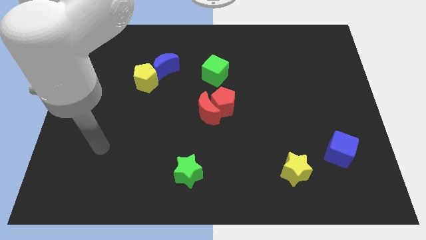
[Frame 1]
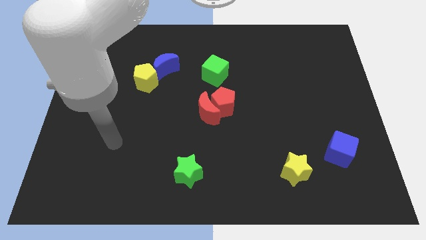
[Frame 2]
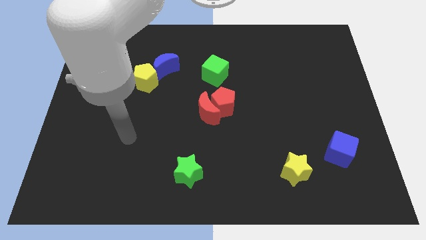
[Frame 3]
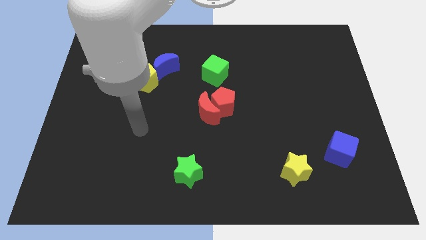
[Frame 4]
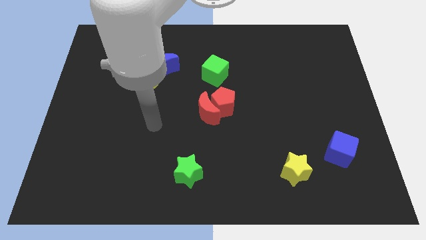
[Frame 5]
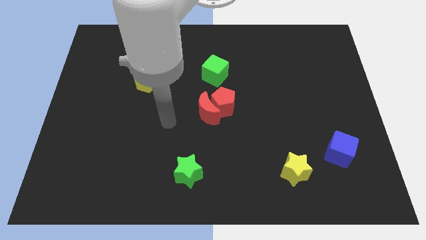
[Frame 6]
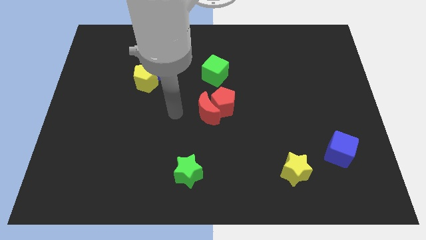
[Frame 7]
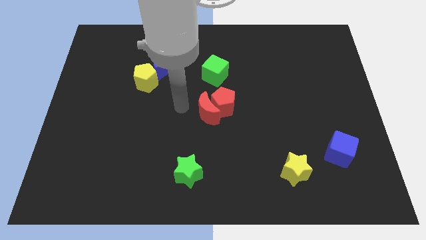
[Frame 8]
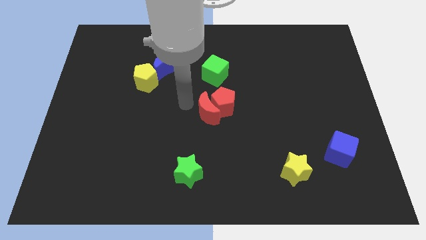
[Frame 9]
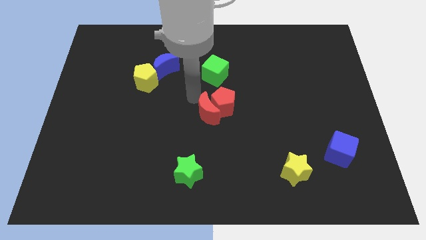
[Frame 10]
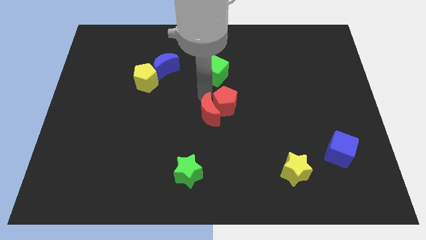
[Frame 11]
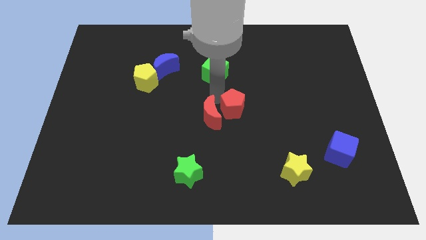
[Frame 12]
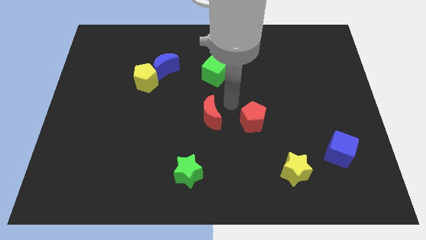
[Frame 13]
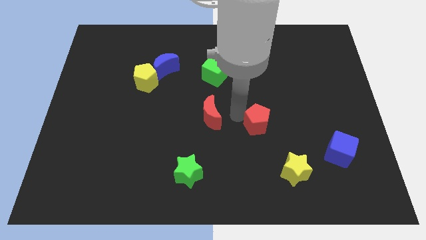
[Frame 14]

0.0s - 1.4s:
separate the red moon from the red pentagon

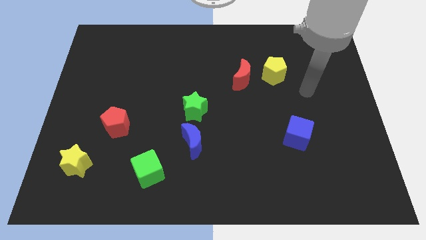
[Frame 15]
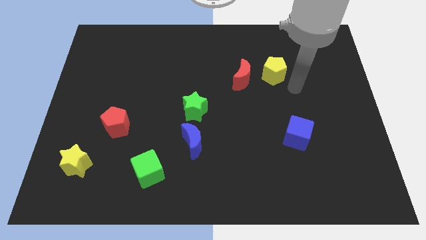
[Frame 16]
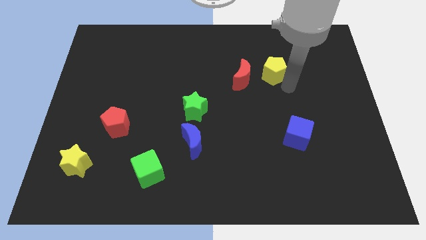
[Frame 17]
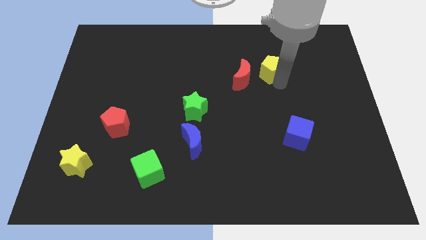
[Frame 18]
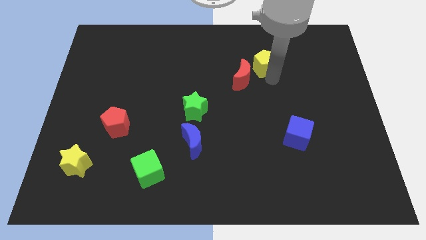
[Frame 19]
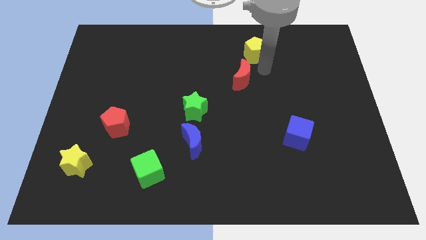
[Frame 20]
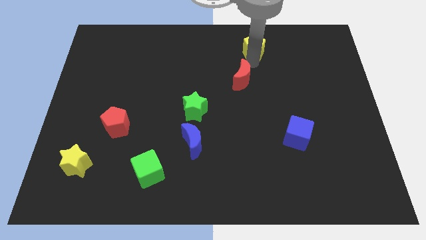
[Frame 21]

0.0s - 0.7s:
pull the red moon apart from the yellow pentagon

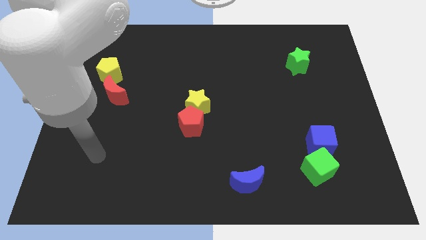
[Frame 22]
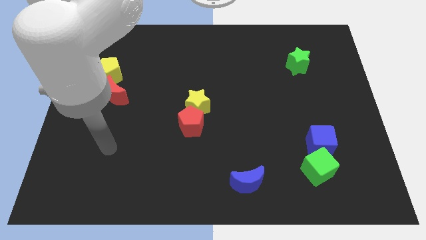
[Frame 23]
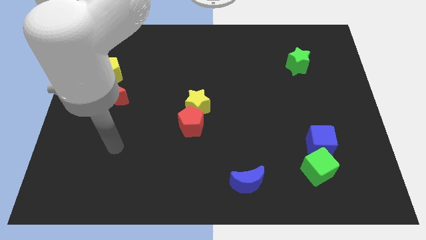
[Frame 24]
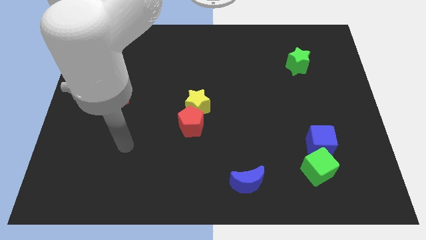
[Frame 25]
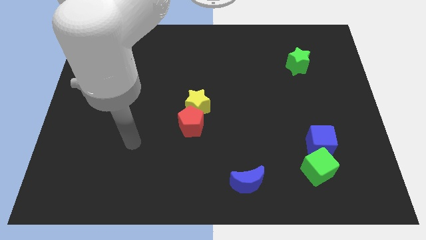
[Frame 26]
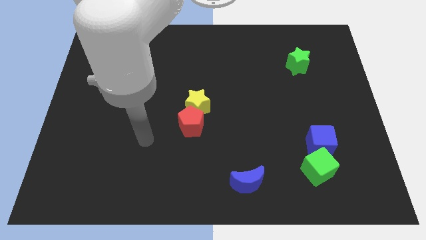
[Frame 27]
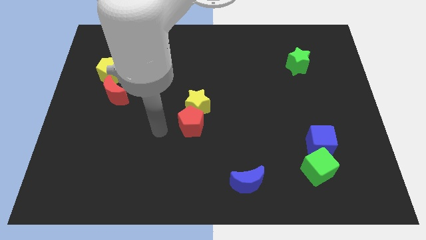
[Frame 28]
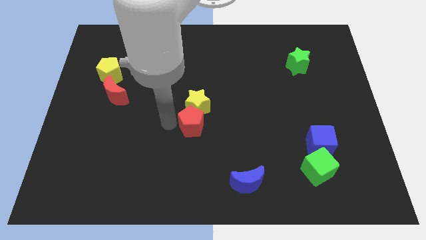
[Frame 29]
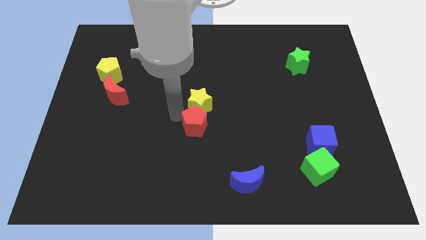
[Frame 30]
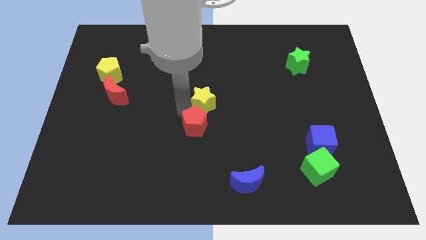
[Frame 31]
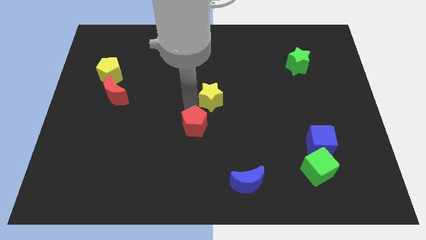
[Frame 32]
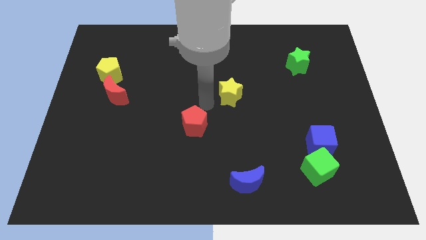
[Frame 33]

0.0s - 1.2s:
move the red pentagon away from the yellow star

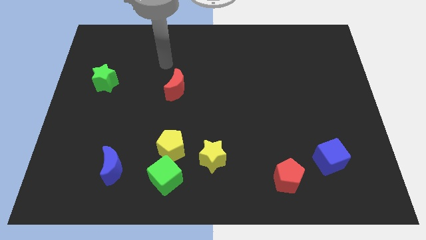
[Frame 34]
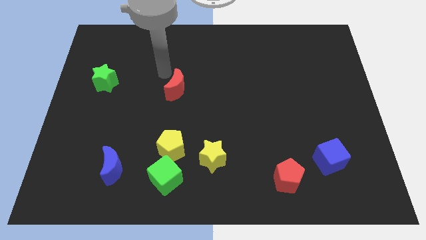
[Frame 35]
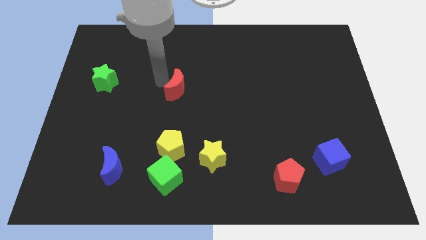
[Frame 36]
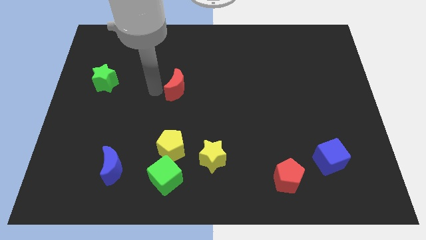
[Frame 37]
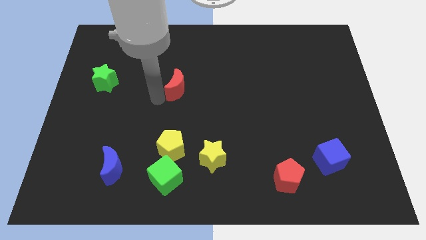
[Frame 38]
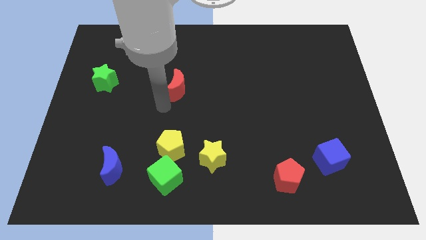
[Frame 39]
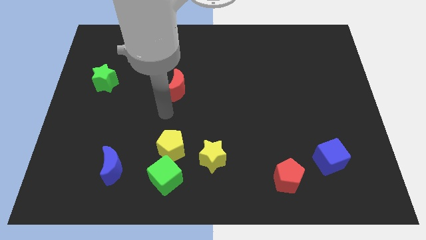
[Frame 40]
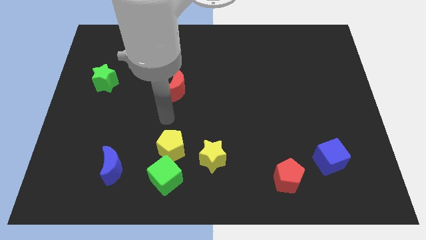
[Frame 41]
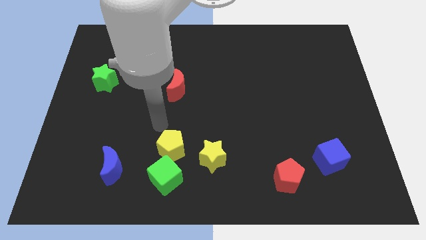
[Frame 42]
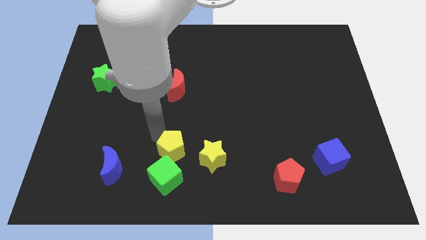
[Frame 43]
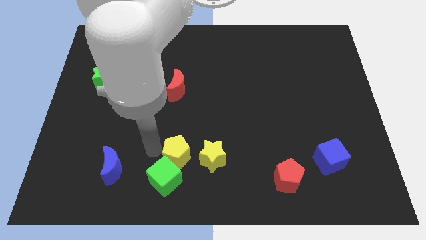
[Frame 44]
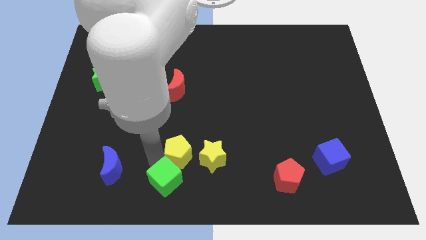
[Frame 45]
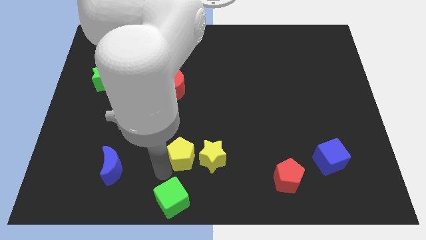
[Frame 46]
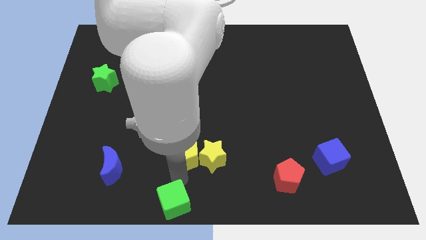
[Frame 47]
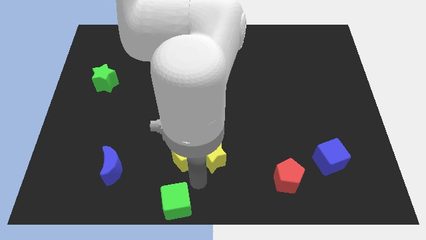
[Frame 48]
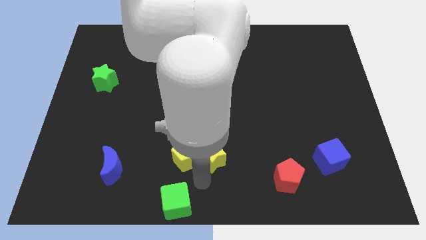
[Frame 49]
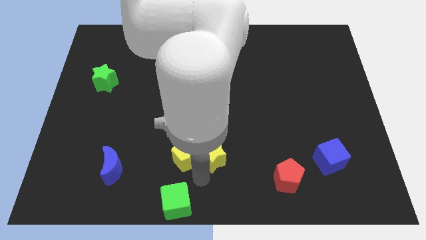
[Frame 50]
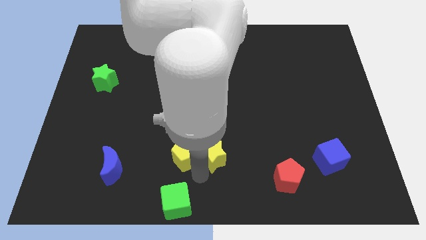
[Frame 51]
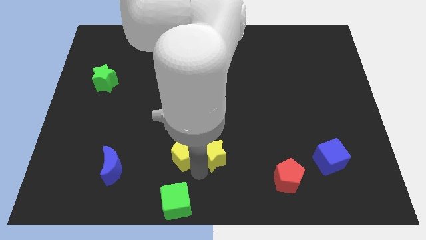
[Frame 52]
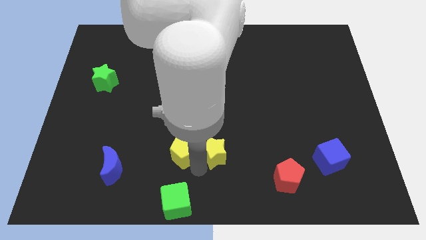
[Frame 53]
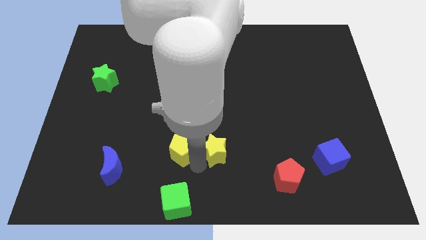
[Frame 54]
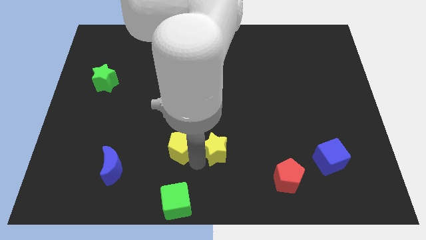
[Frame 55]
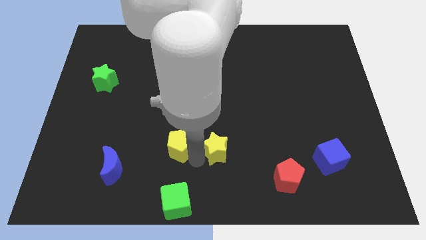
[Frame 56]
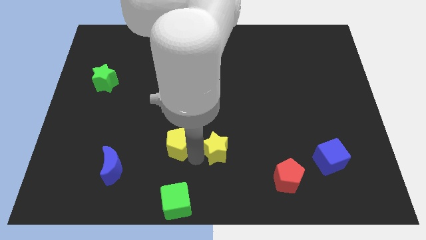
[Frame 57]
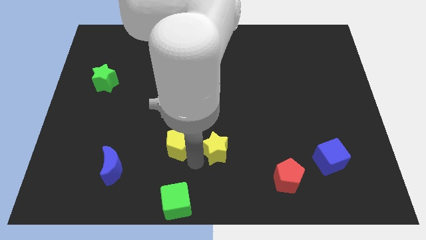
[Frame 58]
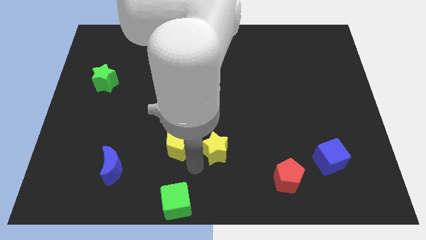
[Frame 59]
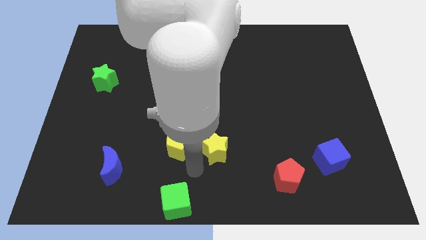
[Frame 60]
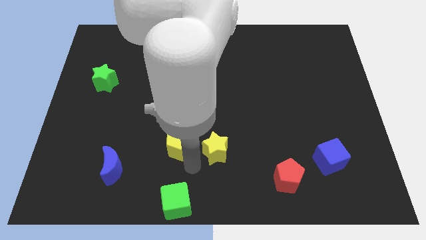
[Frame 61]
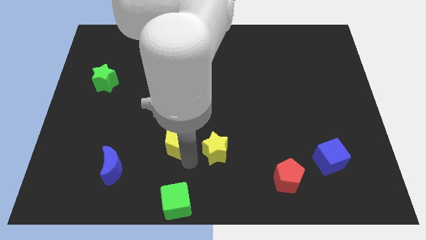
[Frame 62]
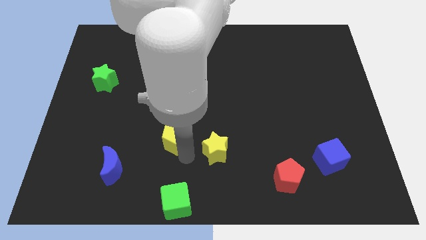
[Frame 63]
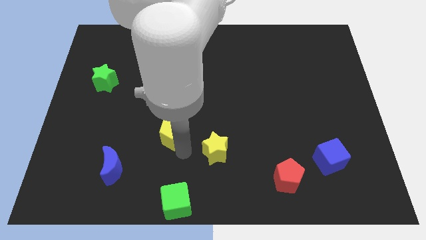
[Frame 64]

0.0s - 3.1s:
move the yellow pentagon away from the green cube and yellow star

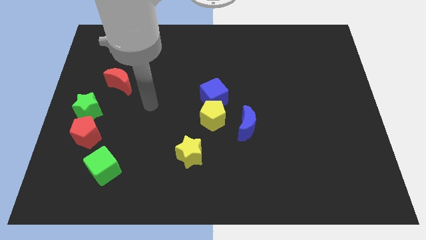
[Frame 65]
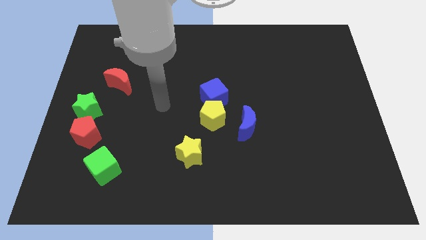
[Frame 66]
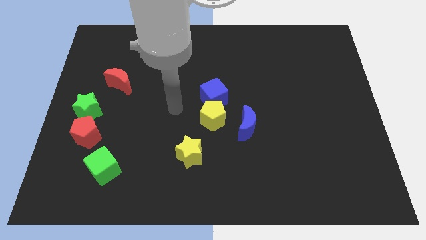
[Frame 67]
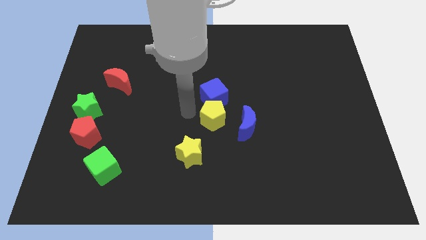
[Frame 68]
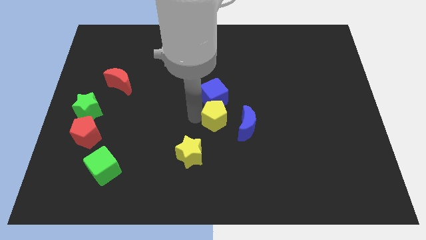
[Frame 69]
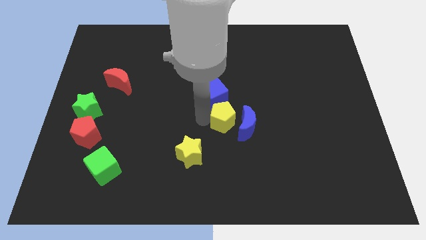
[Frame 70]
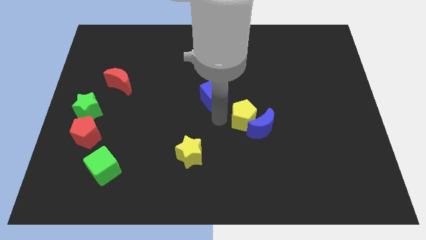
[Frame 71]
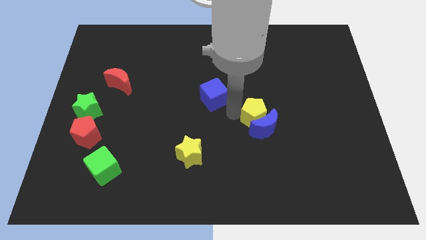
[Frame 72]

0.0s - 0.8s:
separate the blue cube from the yellow pentagon

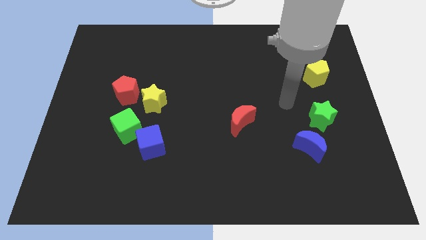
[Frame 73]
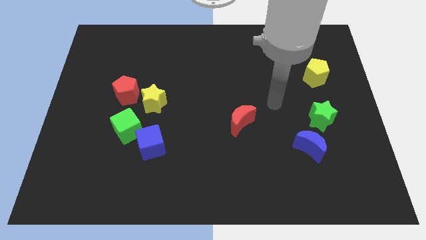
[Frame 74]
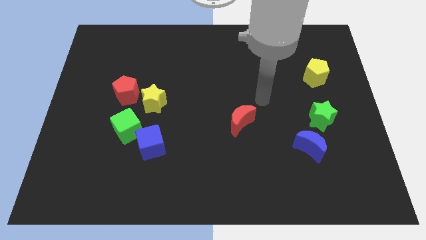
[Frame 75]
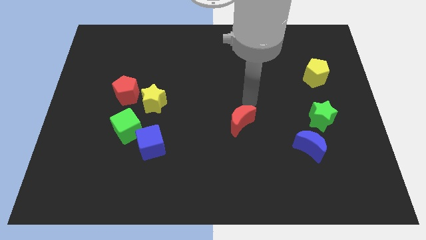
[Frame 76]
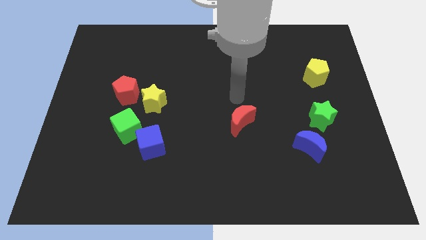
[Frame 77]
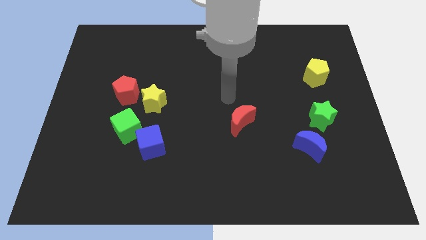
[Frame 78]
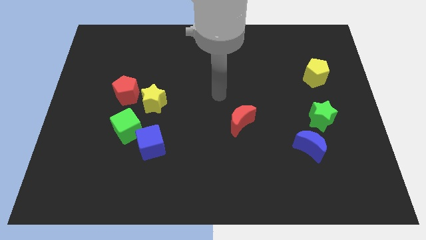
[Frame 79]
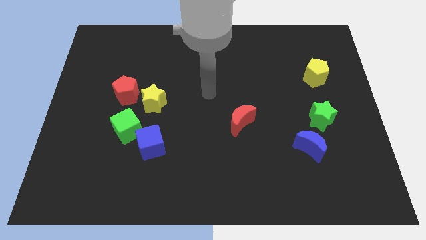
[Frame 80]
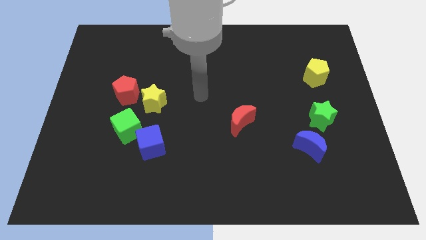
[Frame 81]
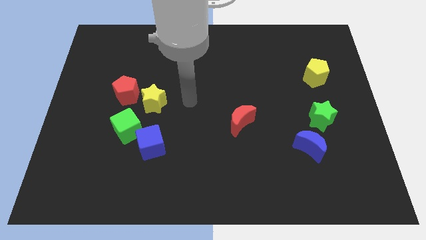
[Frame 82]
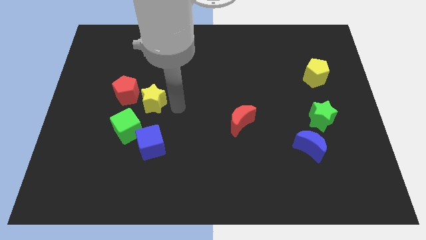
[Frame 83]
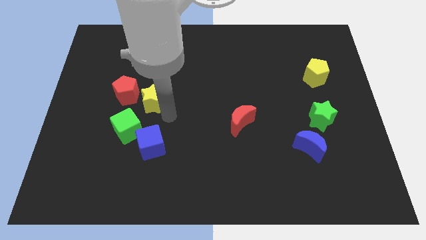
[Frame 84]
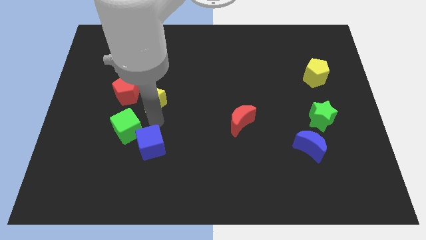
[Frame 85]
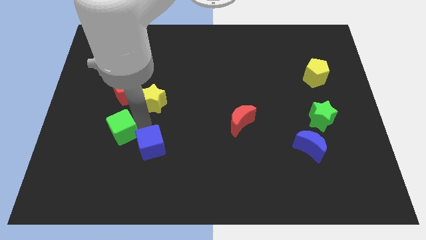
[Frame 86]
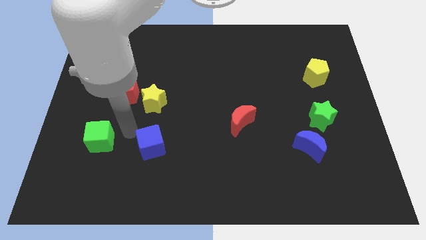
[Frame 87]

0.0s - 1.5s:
separate the blue cube from the green cube

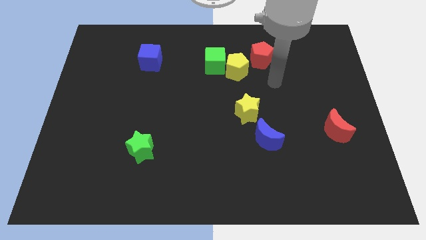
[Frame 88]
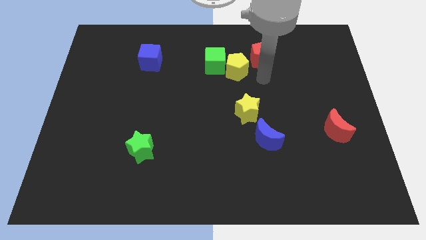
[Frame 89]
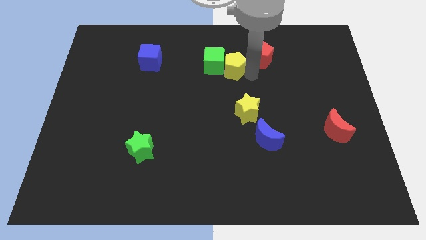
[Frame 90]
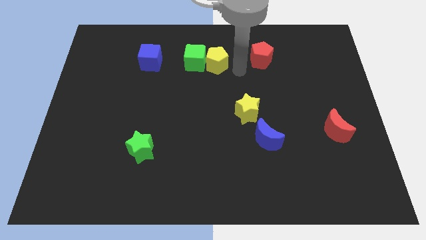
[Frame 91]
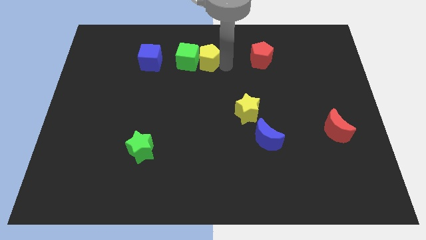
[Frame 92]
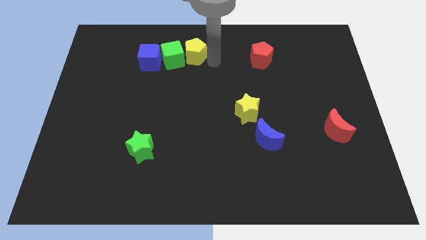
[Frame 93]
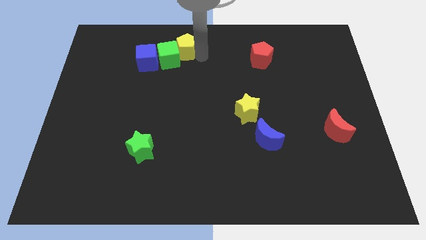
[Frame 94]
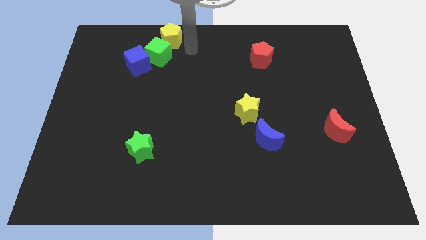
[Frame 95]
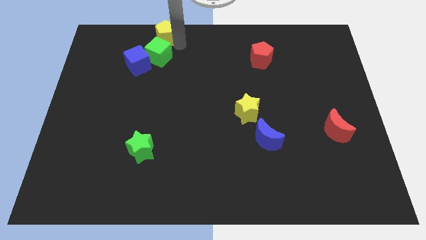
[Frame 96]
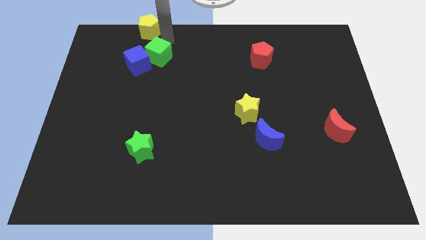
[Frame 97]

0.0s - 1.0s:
move the green cube away from the yellow pentagon
